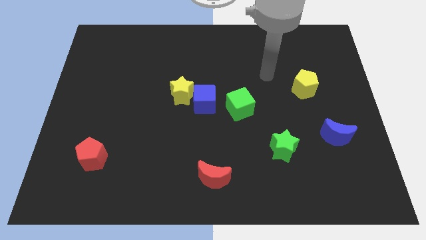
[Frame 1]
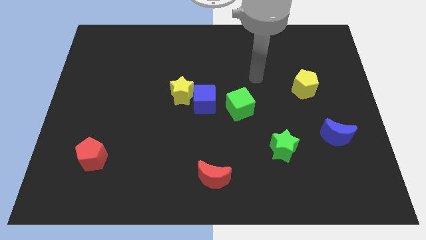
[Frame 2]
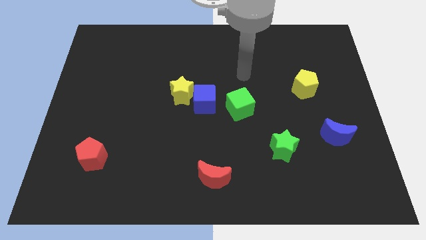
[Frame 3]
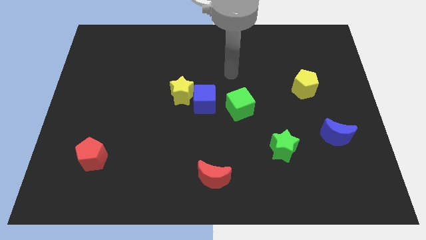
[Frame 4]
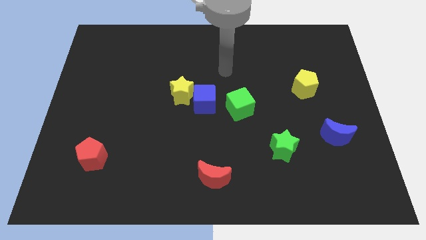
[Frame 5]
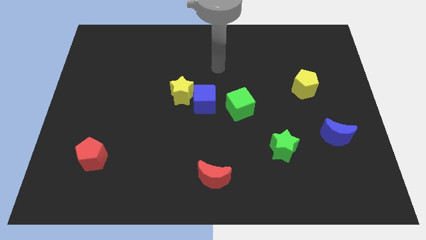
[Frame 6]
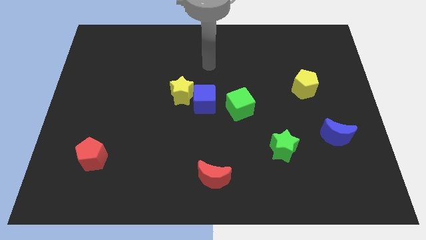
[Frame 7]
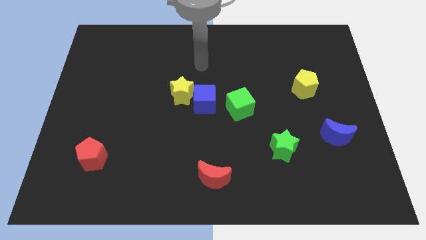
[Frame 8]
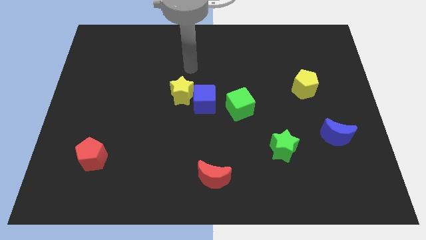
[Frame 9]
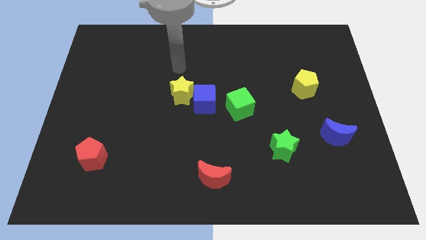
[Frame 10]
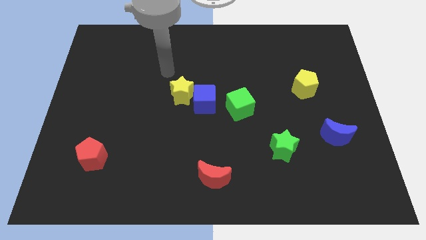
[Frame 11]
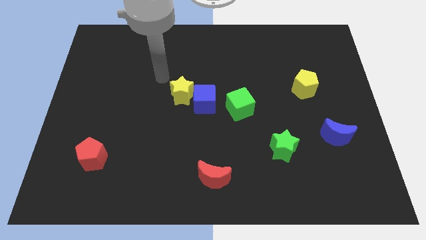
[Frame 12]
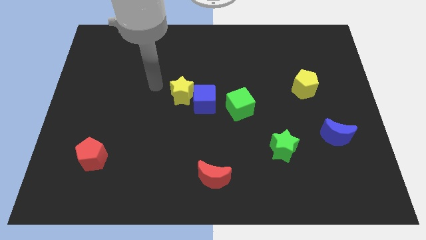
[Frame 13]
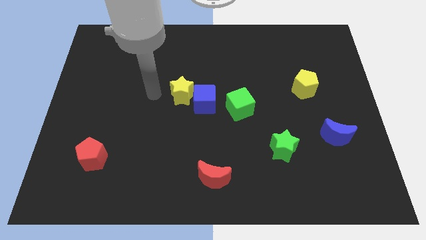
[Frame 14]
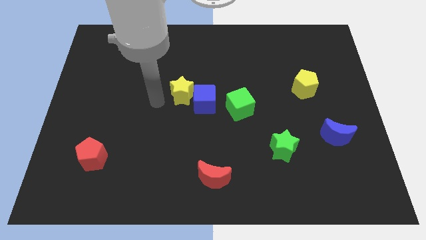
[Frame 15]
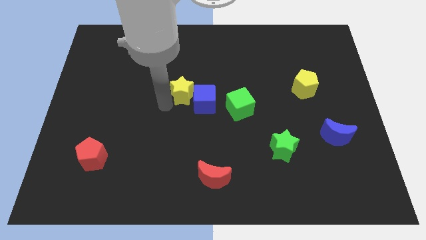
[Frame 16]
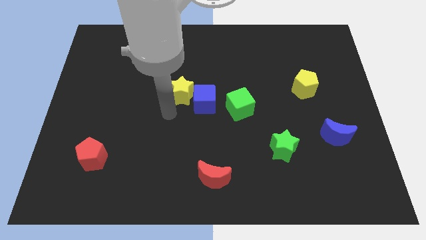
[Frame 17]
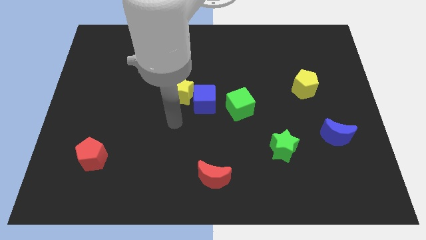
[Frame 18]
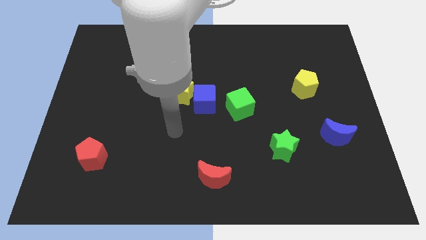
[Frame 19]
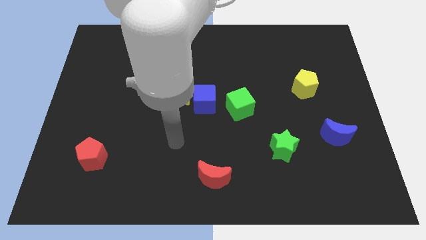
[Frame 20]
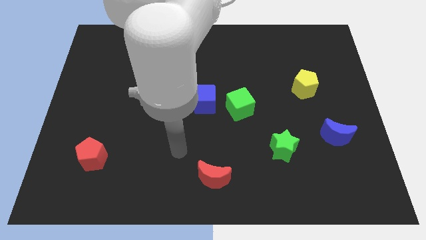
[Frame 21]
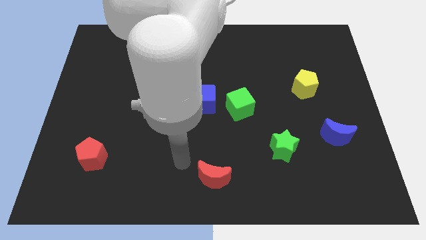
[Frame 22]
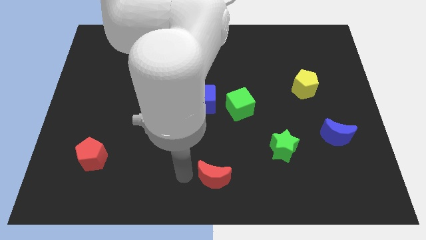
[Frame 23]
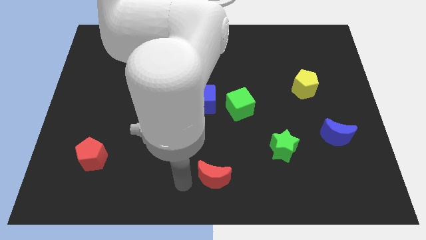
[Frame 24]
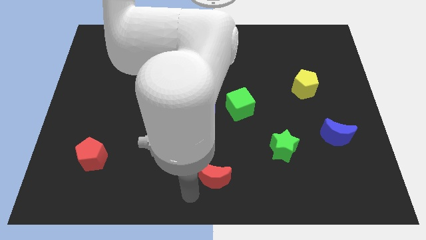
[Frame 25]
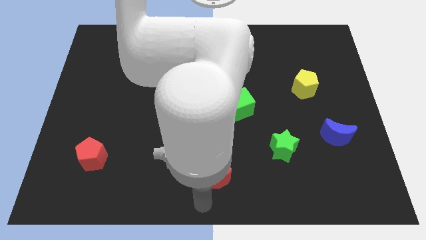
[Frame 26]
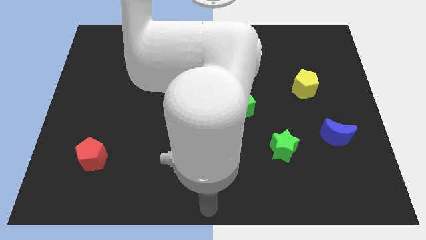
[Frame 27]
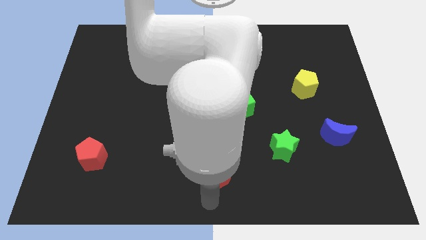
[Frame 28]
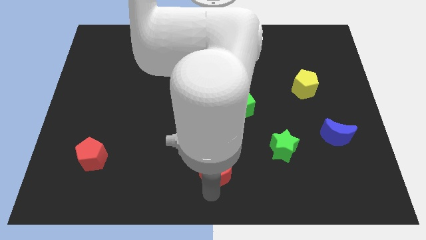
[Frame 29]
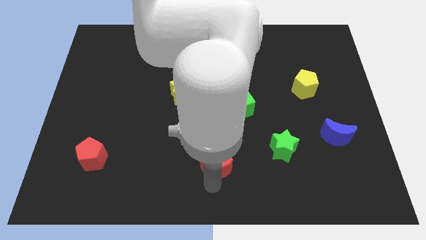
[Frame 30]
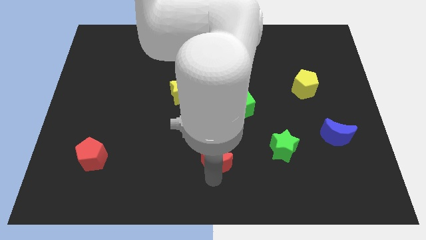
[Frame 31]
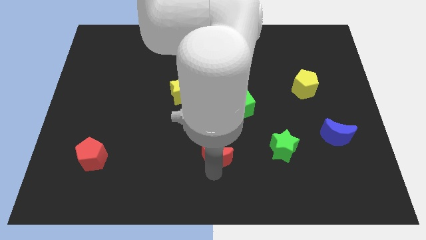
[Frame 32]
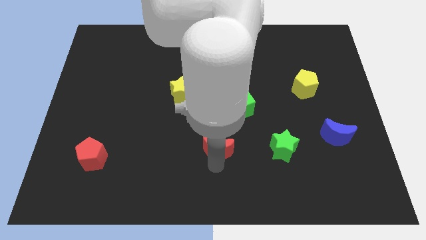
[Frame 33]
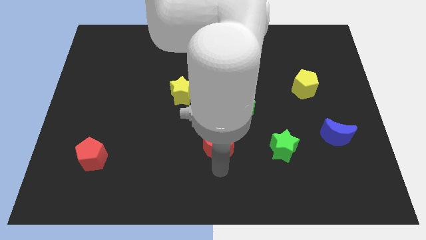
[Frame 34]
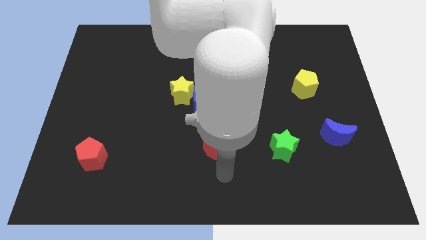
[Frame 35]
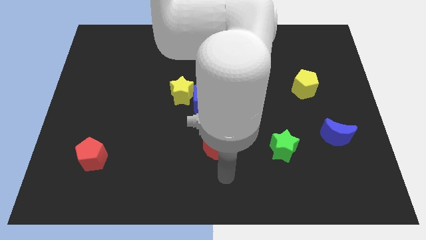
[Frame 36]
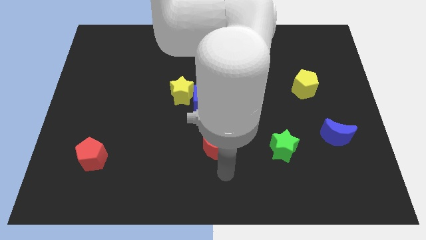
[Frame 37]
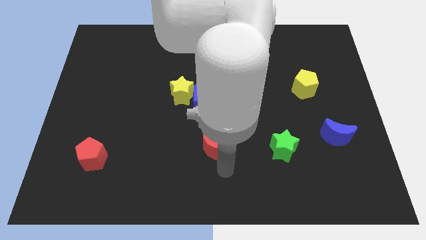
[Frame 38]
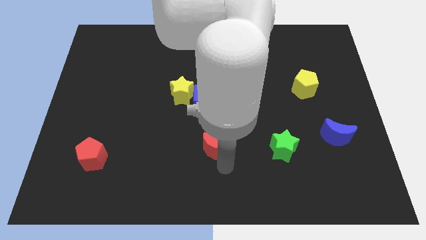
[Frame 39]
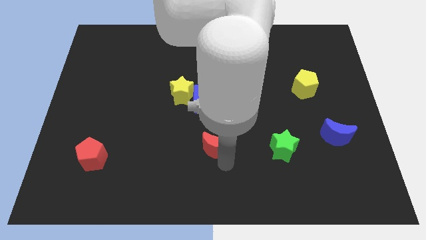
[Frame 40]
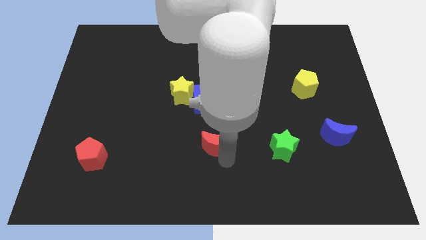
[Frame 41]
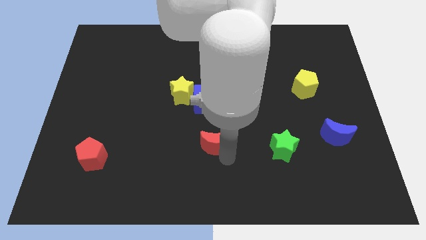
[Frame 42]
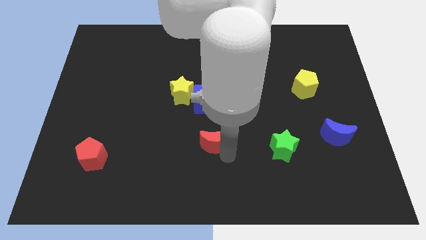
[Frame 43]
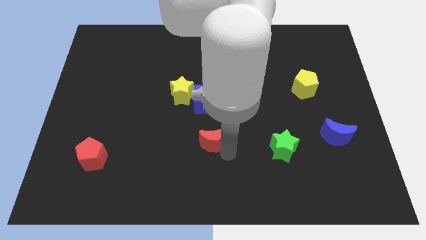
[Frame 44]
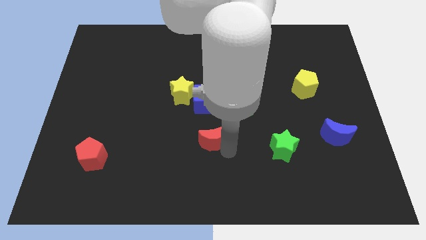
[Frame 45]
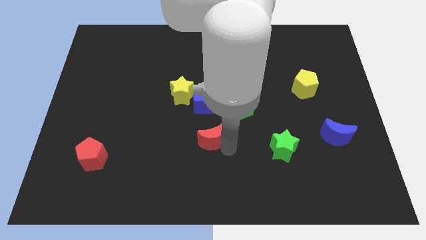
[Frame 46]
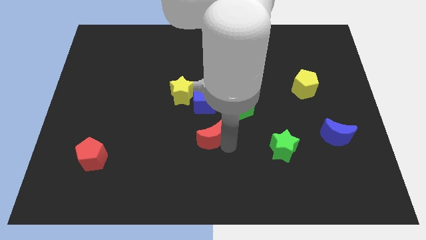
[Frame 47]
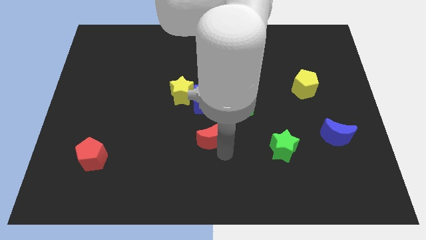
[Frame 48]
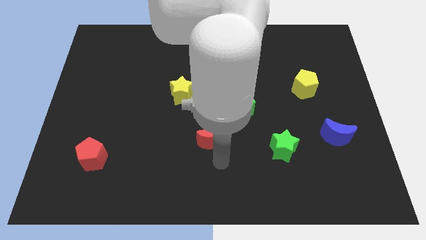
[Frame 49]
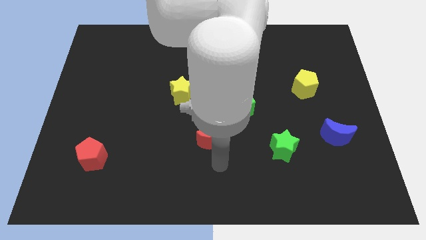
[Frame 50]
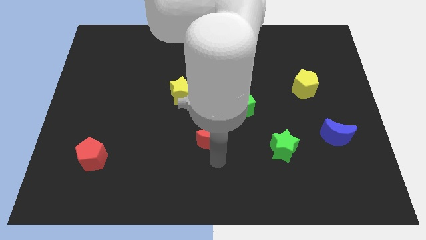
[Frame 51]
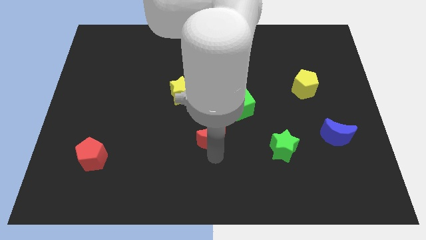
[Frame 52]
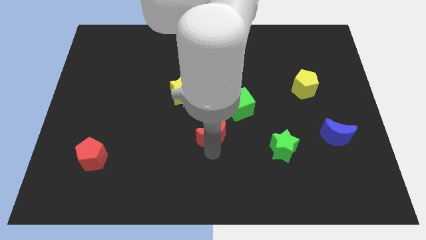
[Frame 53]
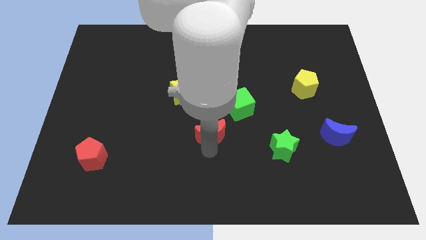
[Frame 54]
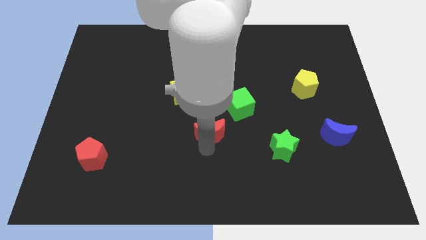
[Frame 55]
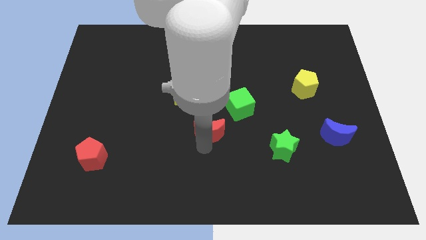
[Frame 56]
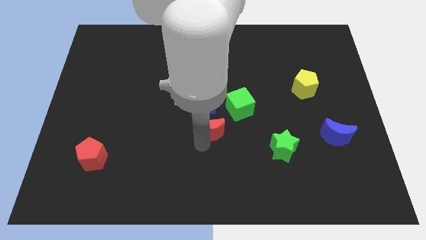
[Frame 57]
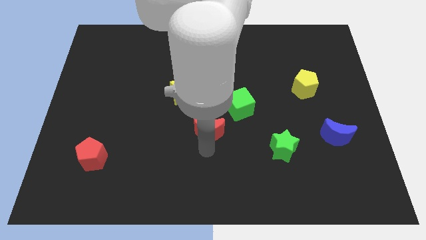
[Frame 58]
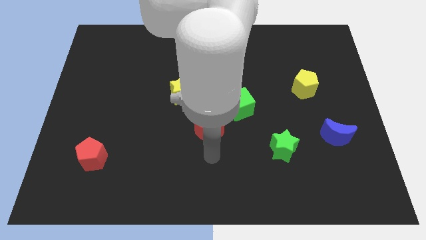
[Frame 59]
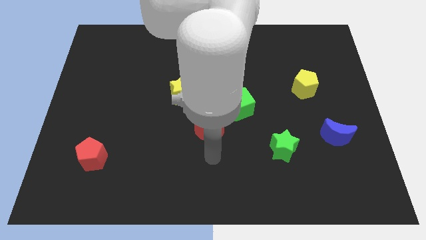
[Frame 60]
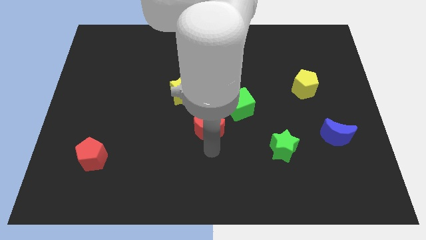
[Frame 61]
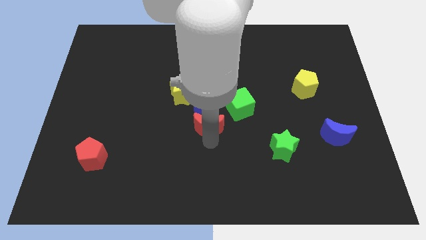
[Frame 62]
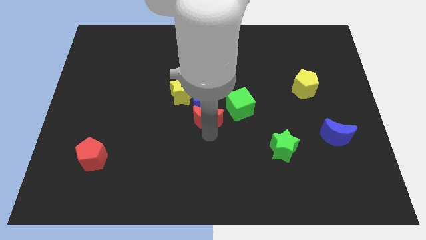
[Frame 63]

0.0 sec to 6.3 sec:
put the red moon towards the blue cube

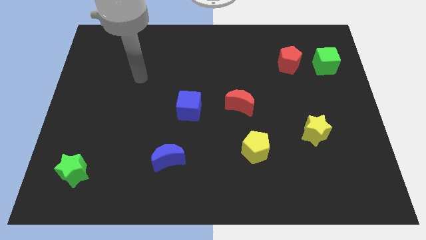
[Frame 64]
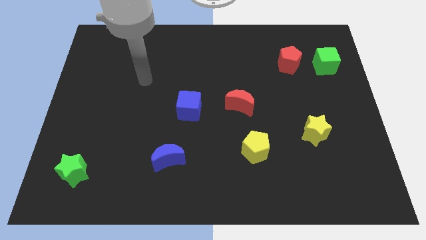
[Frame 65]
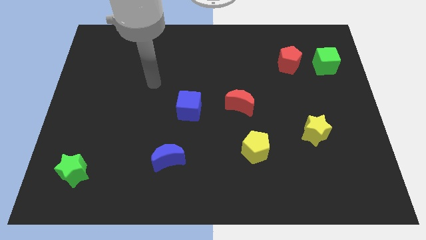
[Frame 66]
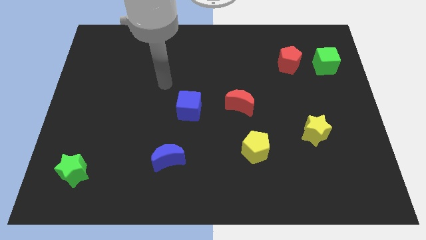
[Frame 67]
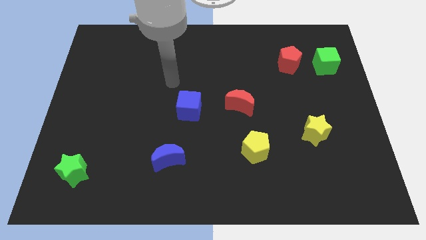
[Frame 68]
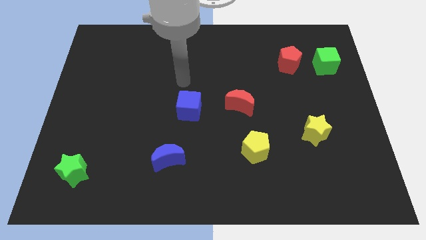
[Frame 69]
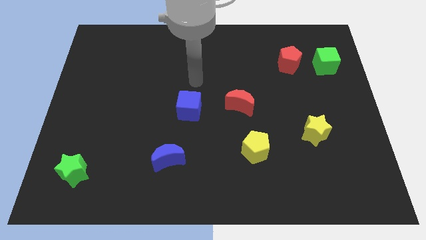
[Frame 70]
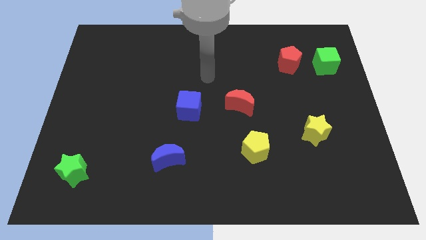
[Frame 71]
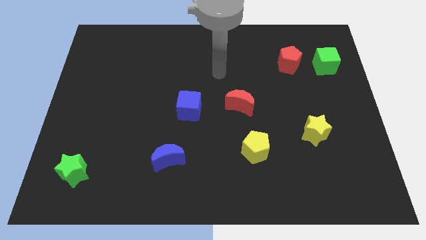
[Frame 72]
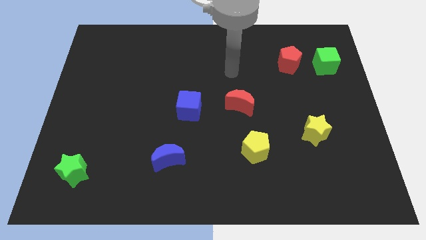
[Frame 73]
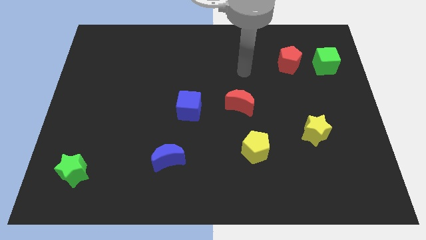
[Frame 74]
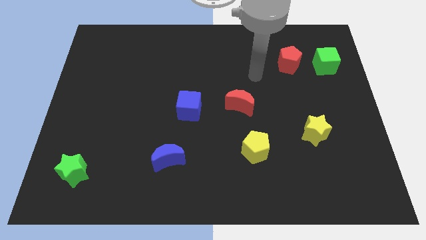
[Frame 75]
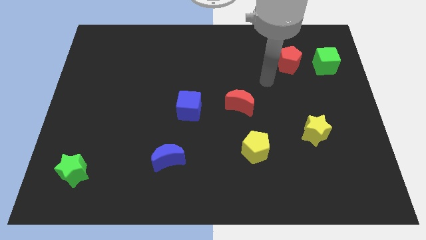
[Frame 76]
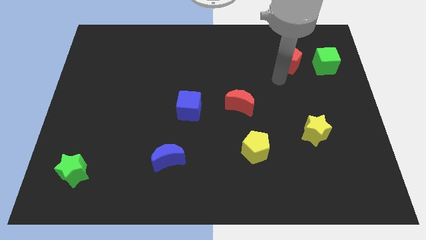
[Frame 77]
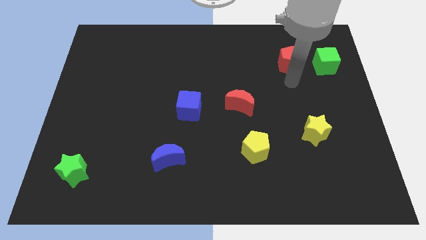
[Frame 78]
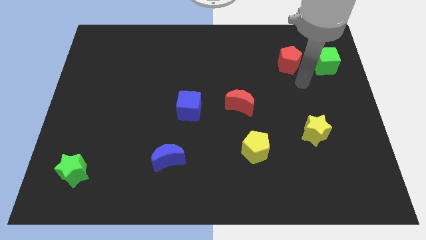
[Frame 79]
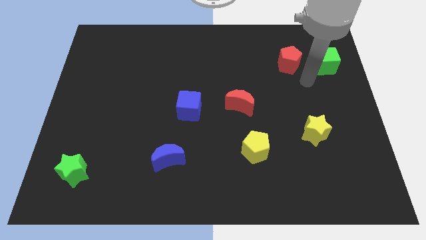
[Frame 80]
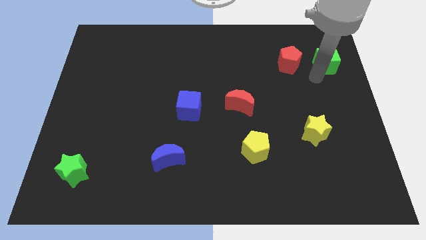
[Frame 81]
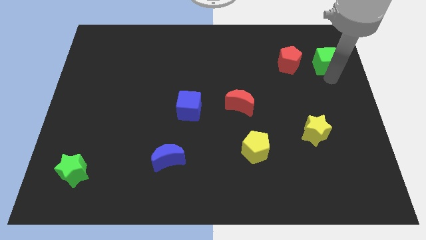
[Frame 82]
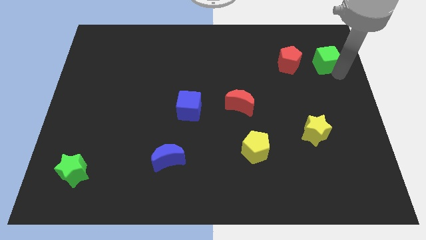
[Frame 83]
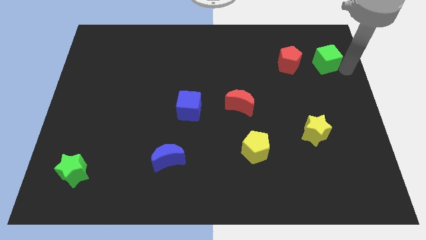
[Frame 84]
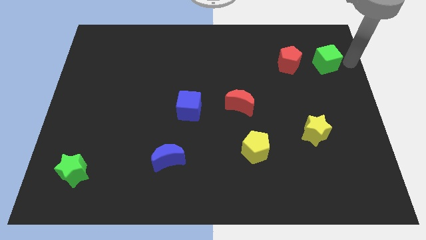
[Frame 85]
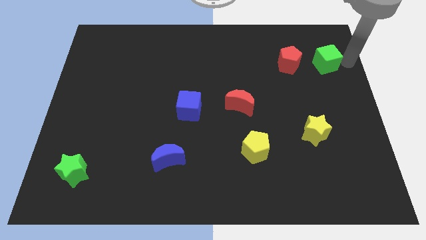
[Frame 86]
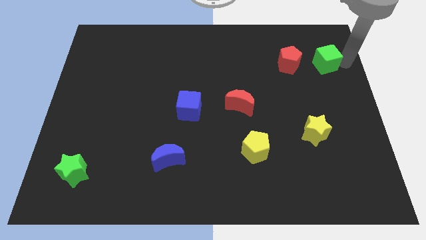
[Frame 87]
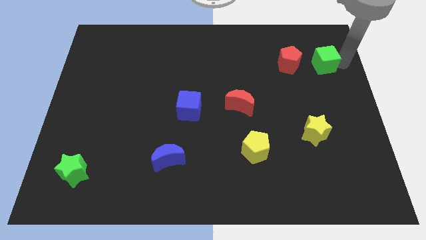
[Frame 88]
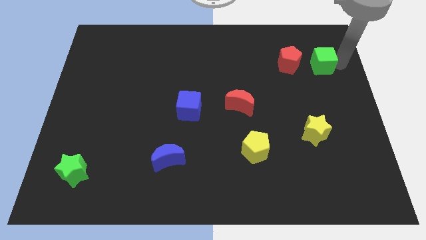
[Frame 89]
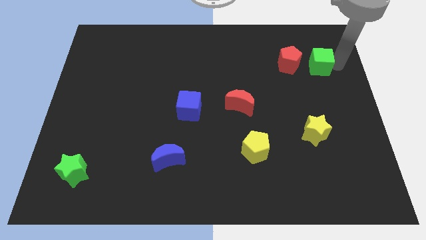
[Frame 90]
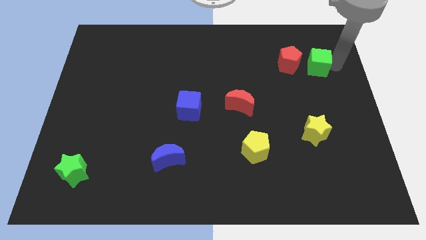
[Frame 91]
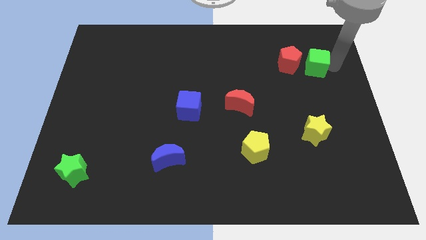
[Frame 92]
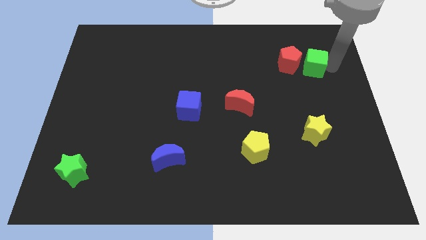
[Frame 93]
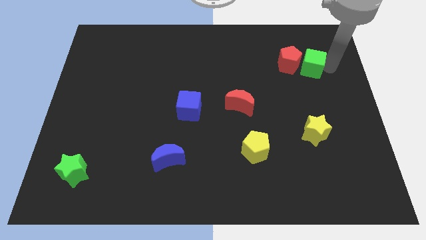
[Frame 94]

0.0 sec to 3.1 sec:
put the green cube close to the red pentagon
